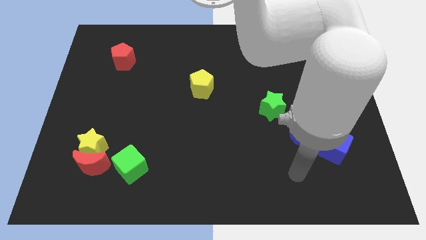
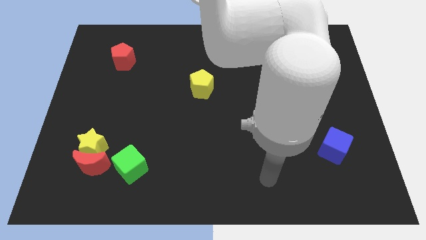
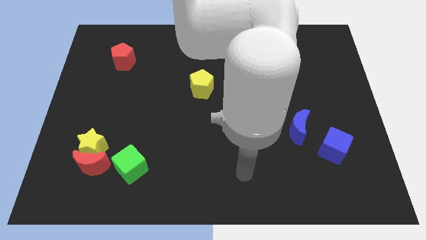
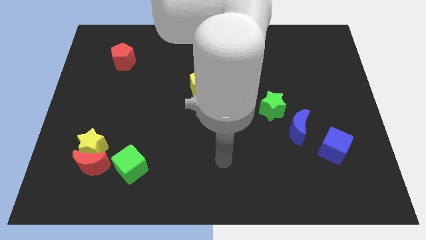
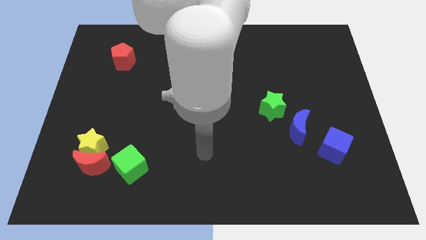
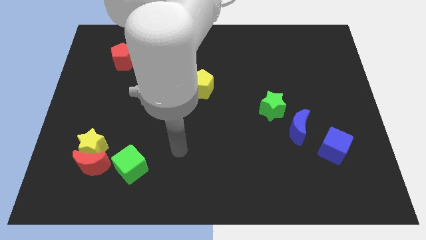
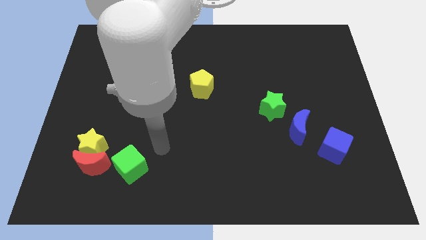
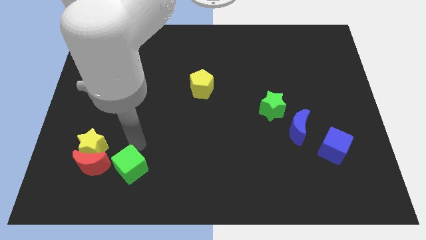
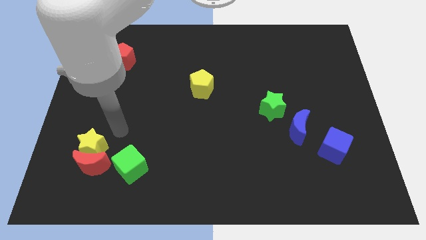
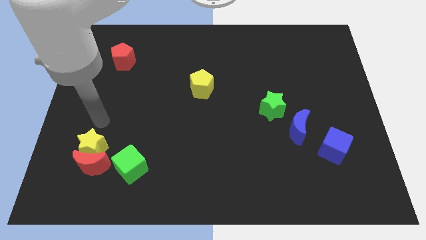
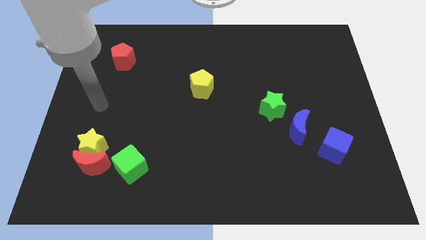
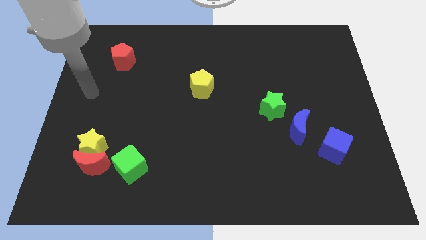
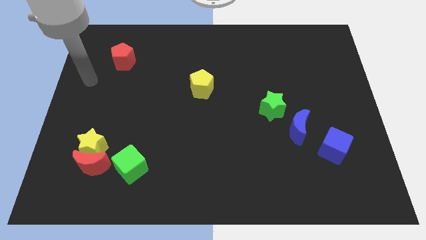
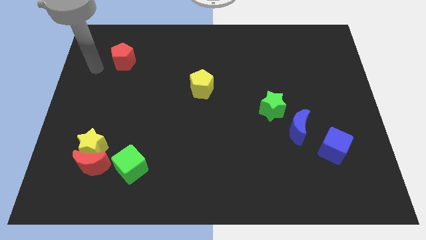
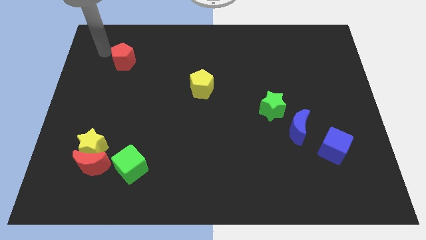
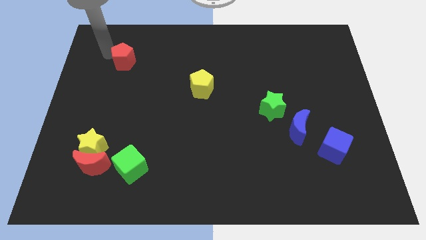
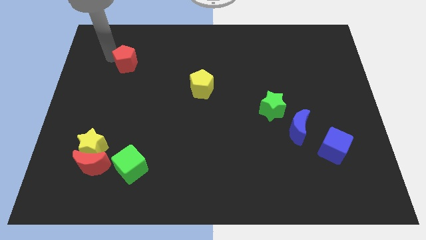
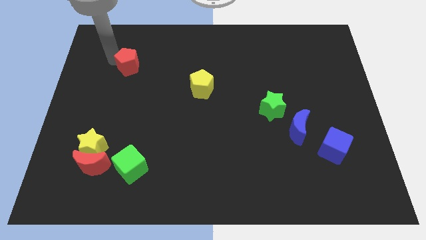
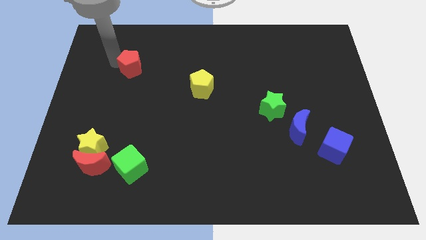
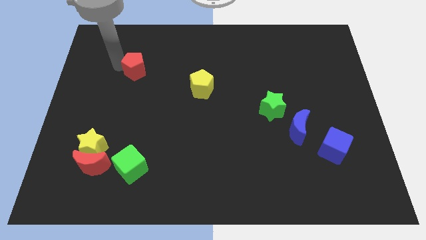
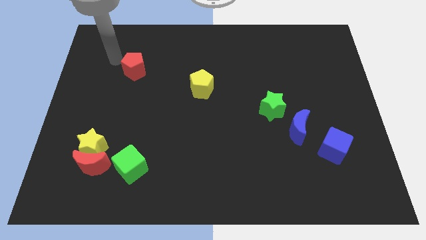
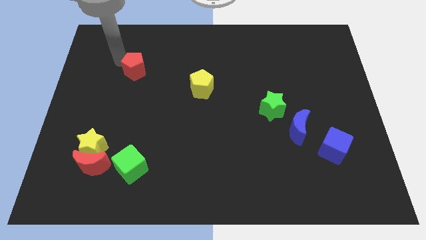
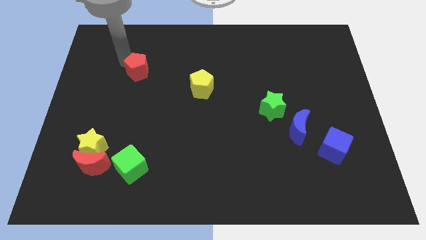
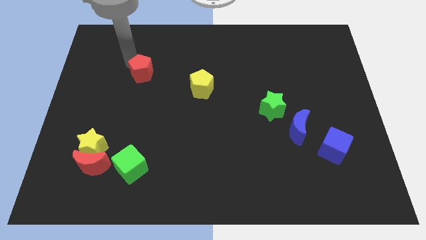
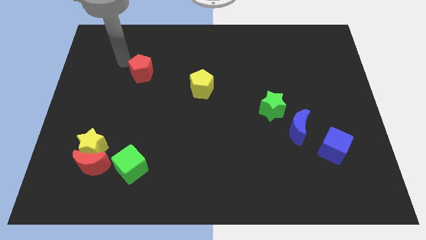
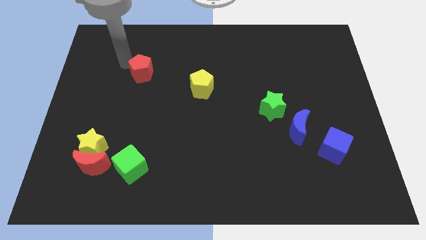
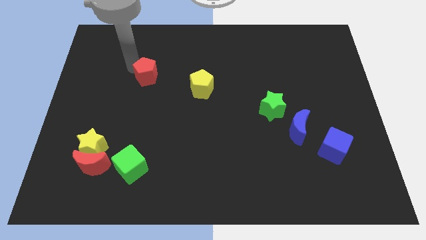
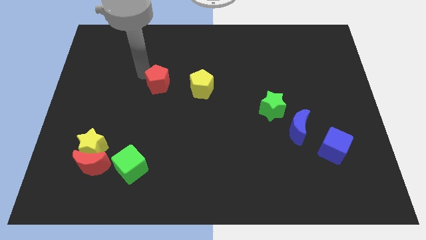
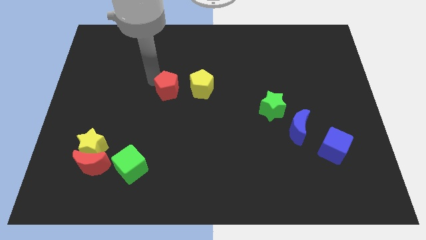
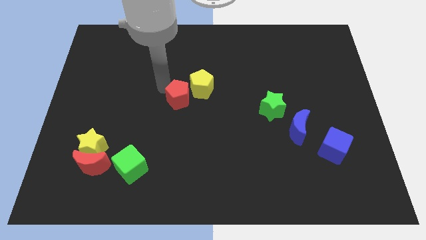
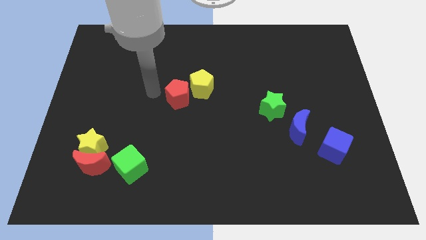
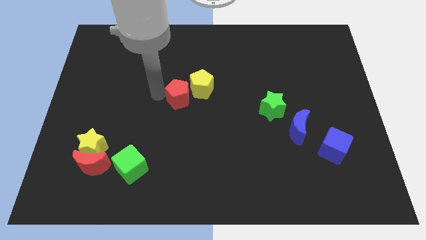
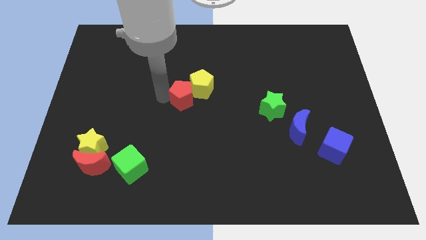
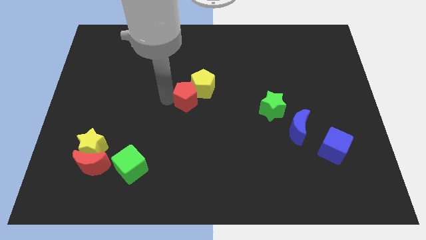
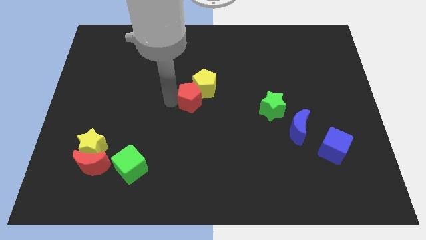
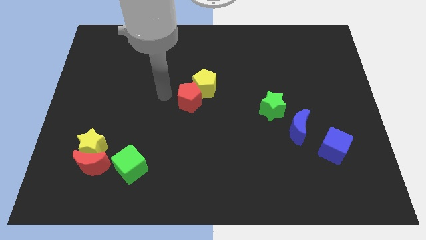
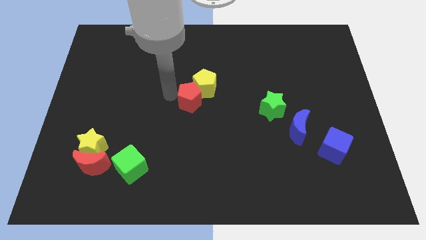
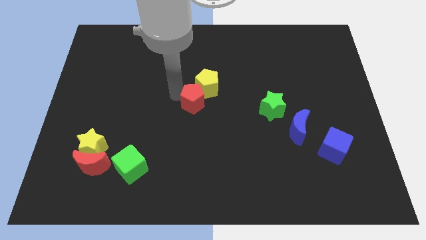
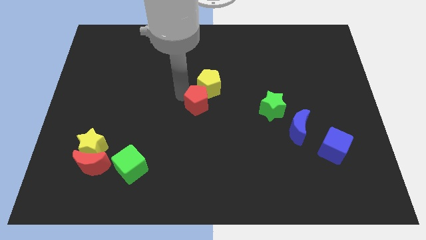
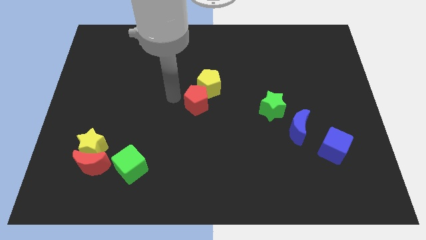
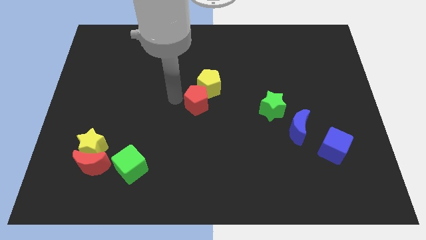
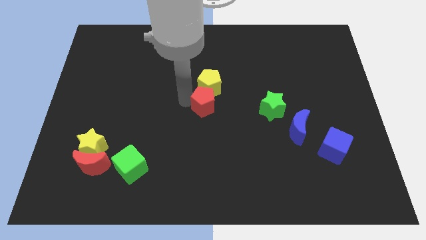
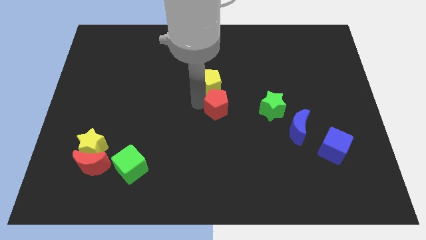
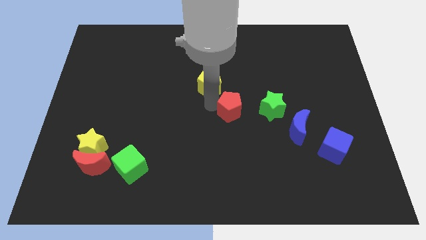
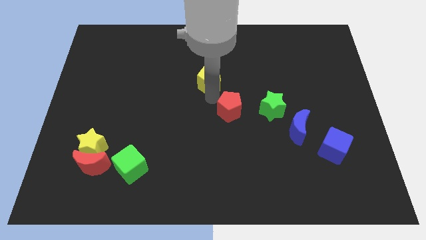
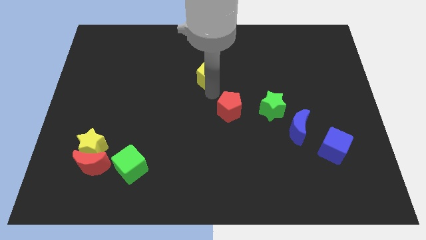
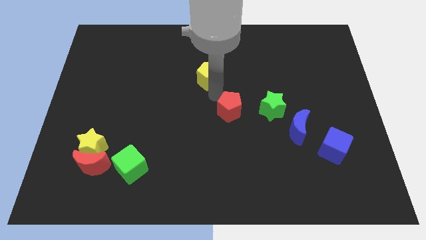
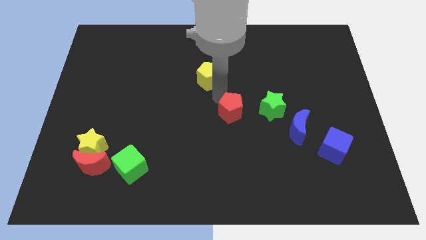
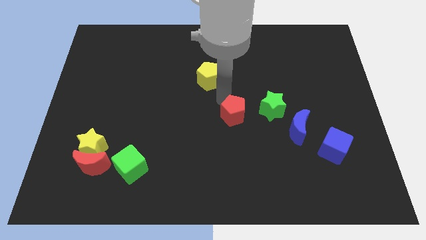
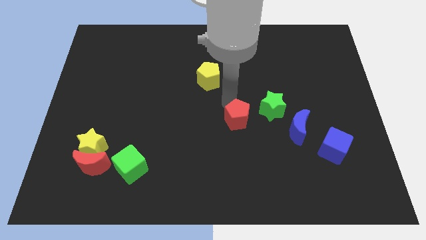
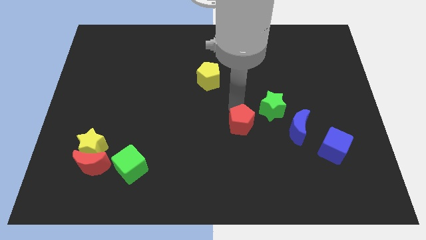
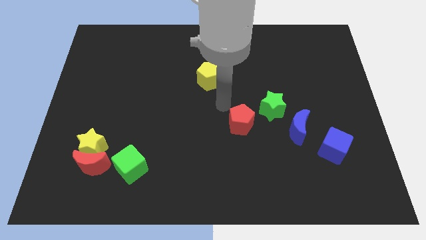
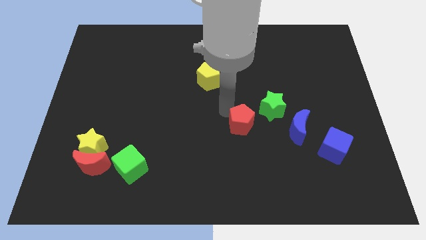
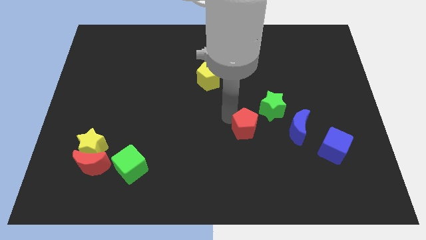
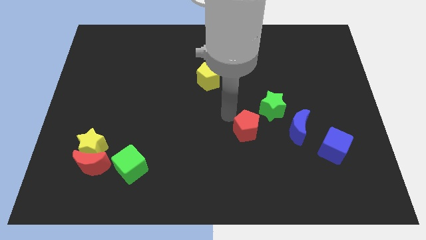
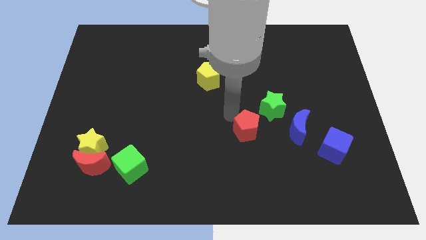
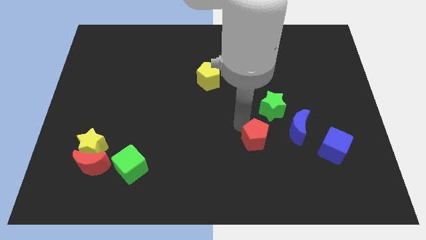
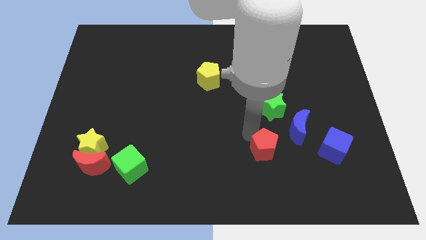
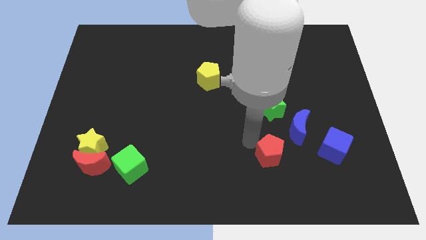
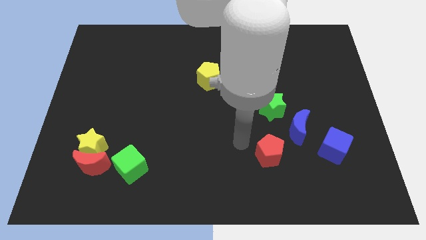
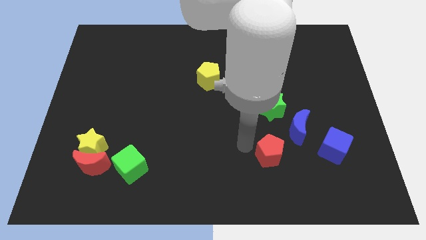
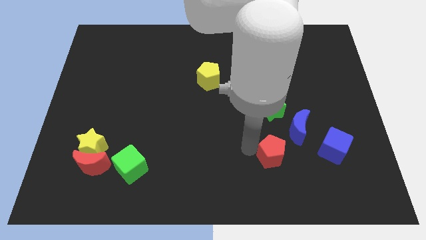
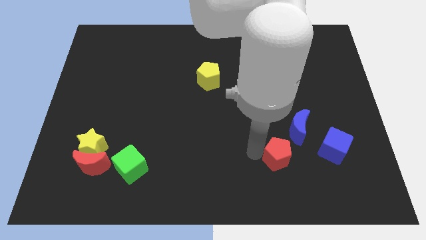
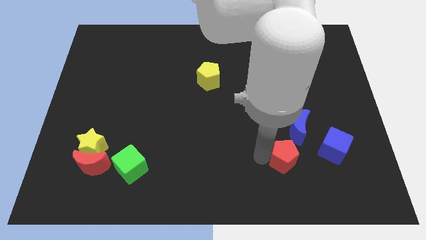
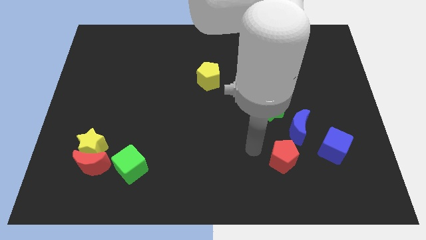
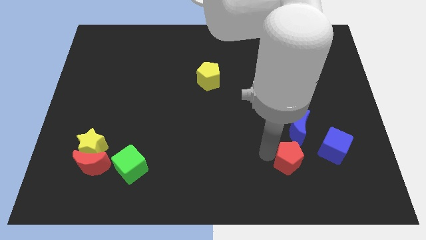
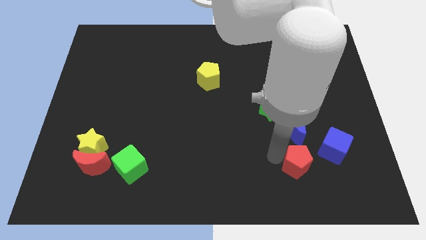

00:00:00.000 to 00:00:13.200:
put the red pentagon to the bottom left side of the blue cube
